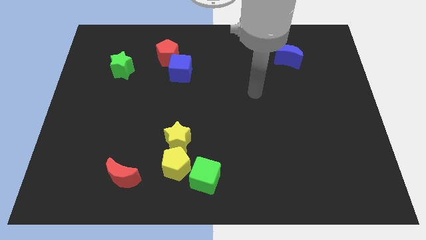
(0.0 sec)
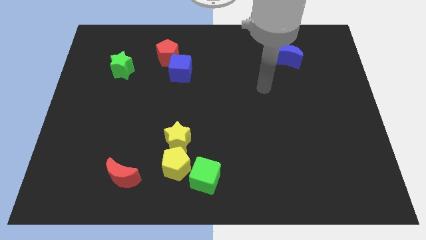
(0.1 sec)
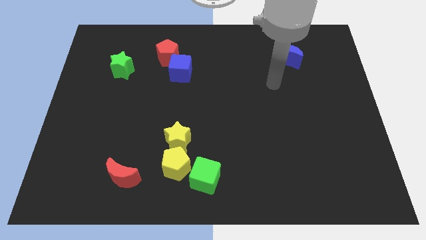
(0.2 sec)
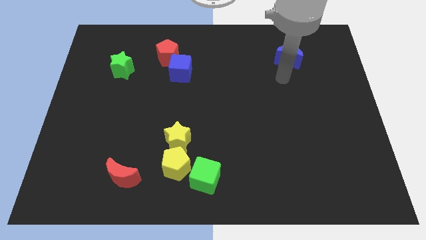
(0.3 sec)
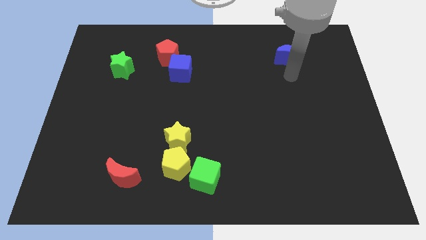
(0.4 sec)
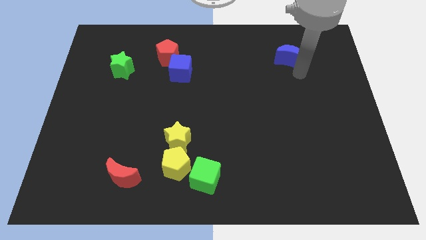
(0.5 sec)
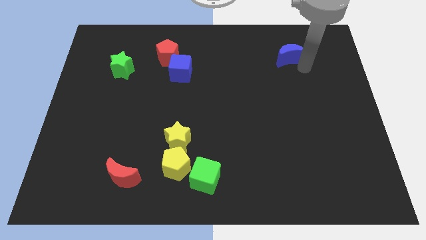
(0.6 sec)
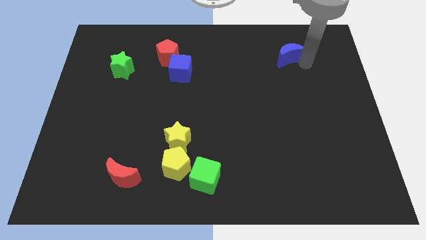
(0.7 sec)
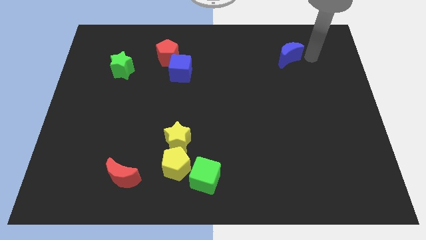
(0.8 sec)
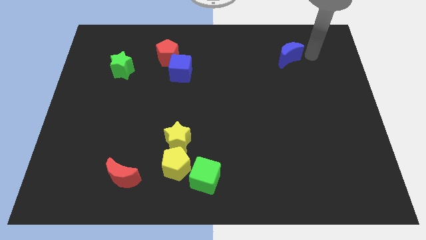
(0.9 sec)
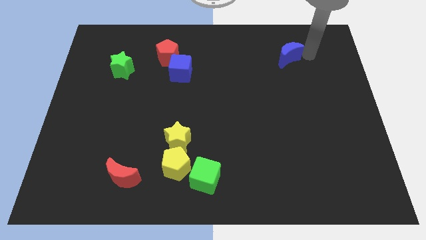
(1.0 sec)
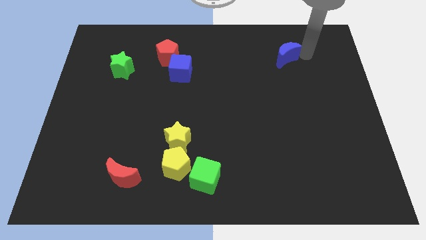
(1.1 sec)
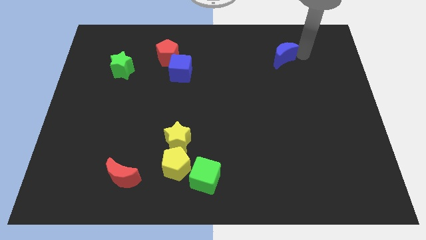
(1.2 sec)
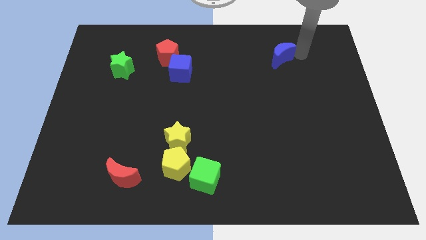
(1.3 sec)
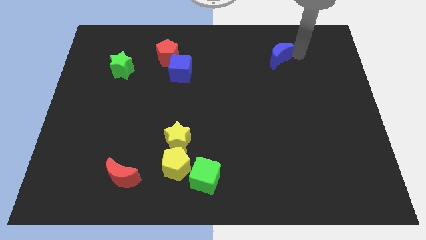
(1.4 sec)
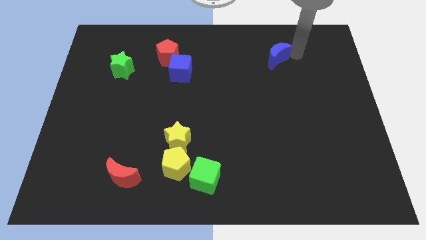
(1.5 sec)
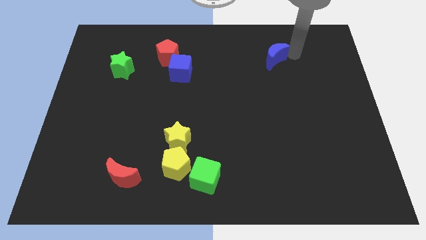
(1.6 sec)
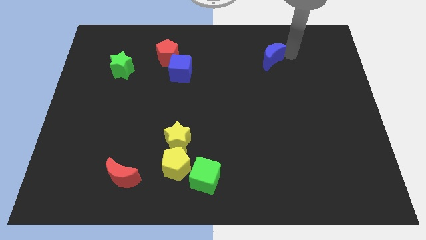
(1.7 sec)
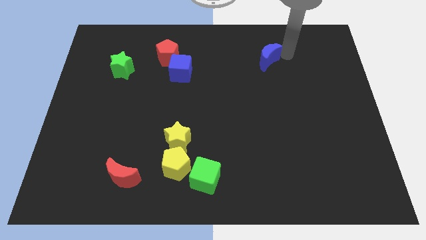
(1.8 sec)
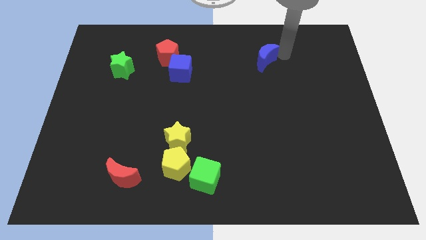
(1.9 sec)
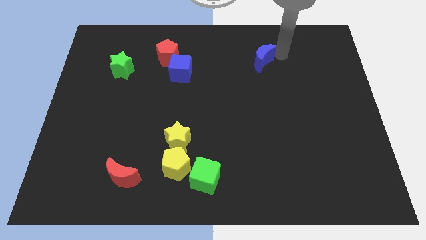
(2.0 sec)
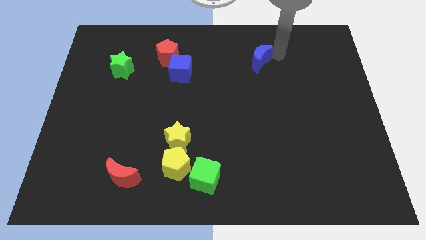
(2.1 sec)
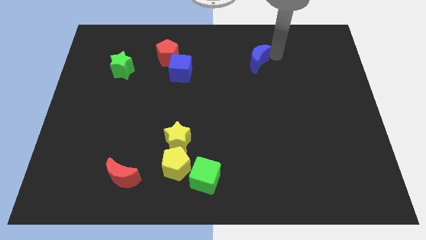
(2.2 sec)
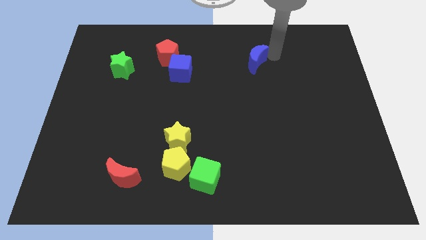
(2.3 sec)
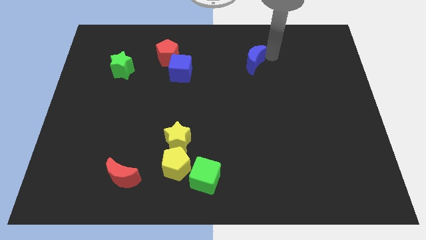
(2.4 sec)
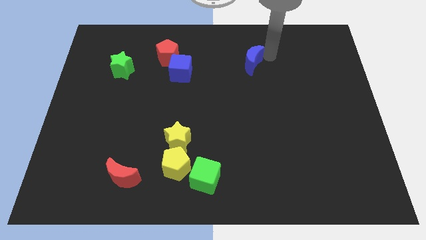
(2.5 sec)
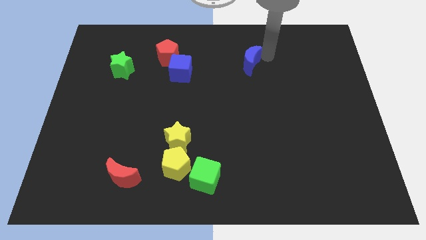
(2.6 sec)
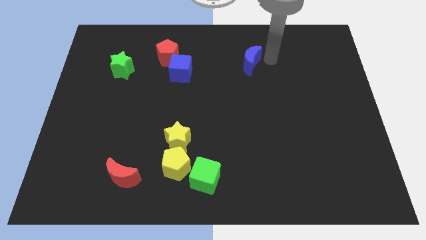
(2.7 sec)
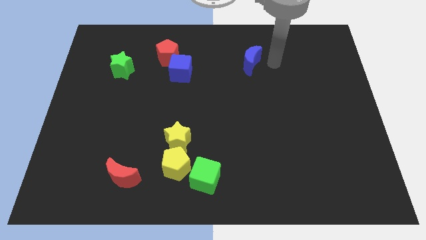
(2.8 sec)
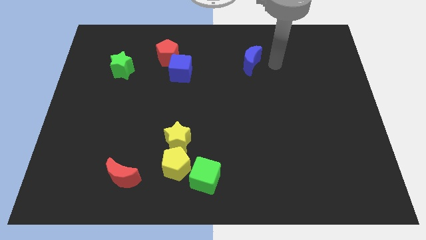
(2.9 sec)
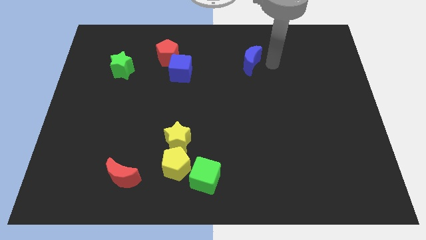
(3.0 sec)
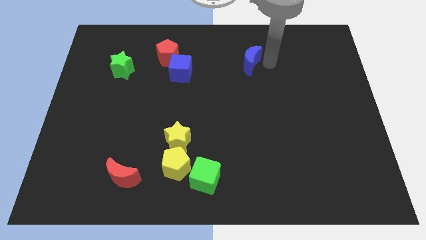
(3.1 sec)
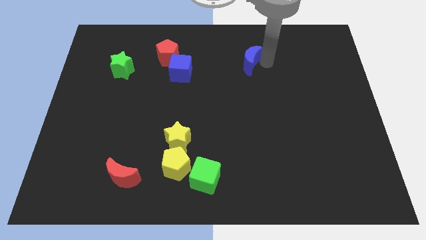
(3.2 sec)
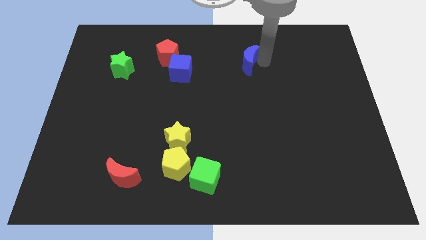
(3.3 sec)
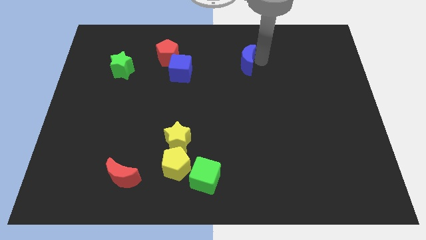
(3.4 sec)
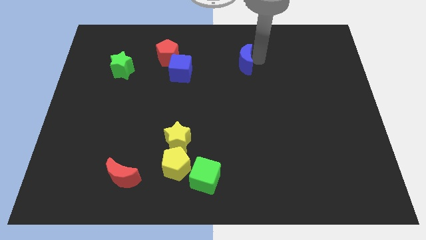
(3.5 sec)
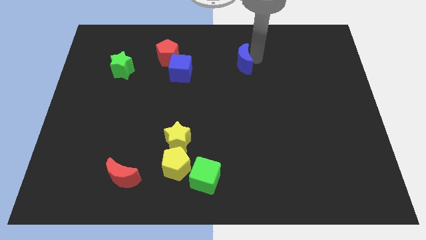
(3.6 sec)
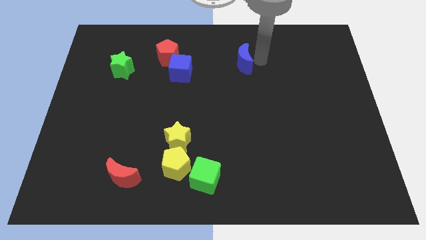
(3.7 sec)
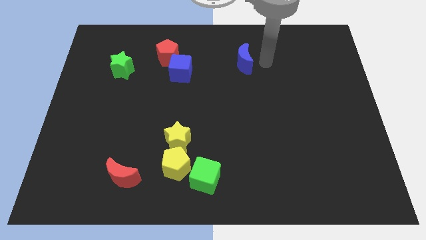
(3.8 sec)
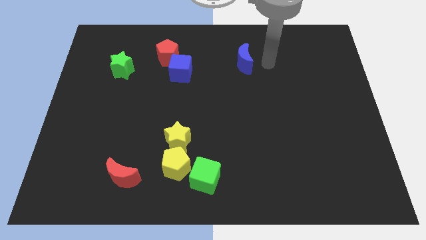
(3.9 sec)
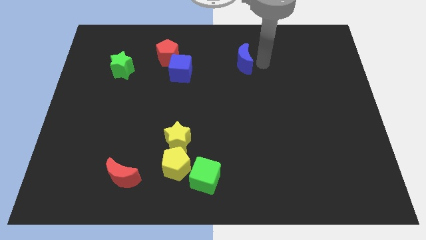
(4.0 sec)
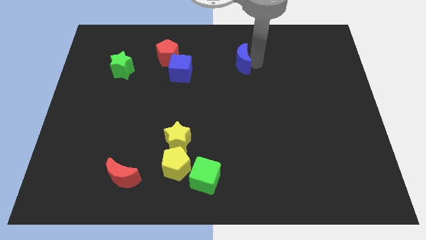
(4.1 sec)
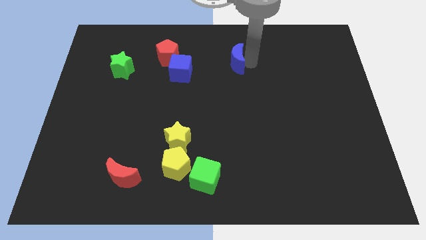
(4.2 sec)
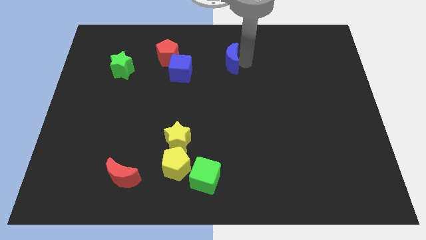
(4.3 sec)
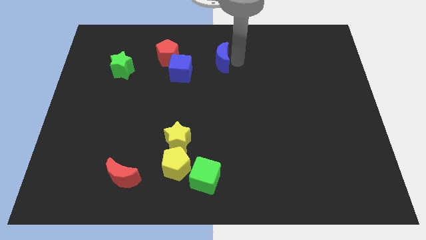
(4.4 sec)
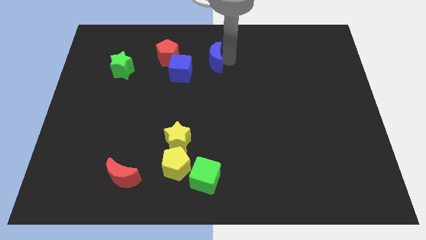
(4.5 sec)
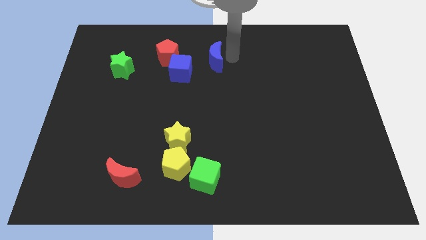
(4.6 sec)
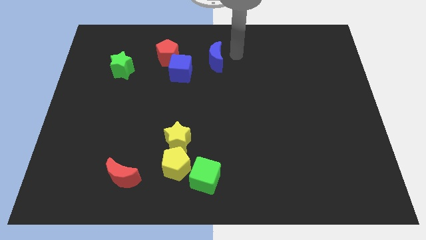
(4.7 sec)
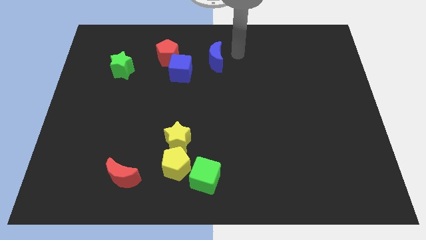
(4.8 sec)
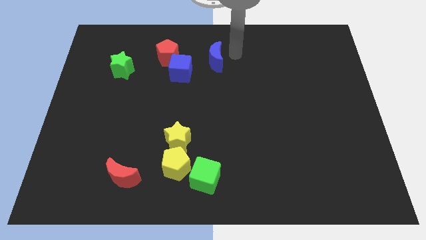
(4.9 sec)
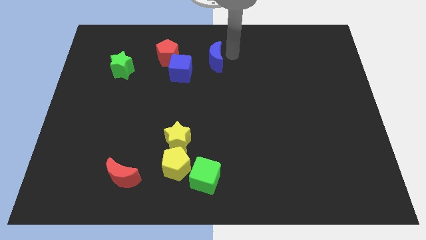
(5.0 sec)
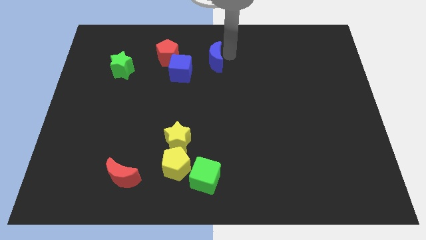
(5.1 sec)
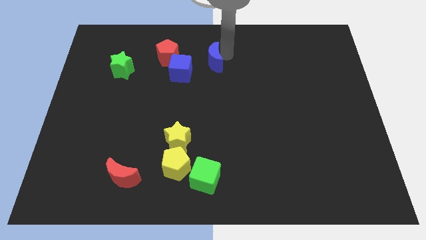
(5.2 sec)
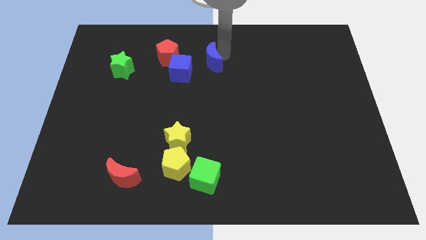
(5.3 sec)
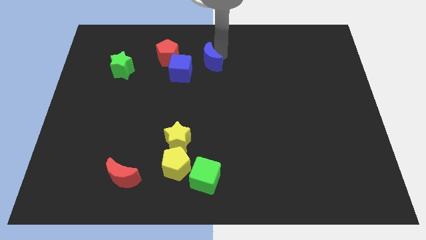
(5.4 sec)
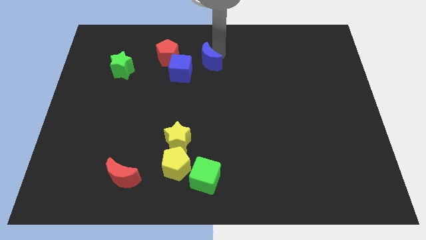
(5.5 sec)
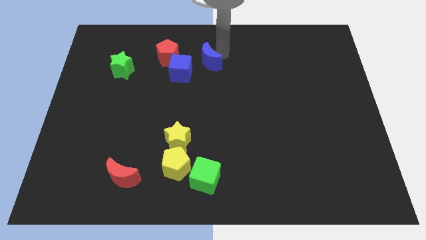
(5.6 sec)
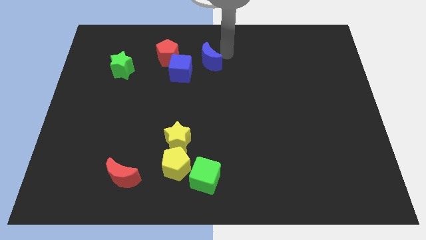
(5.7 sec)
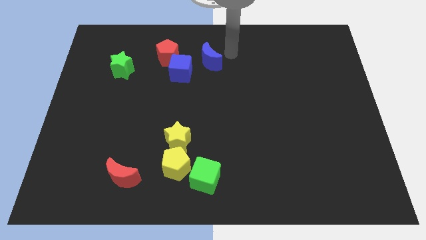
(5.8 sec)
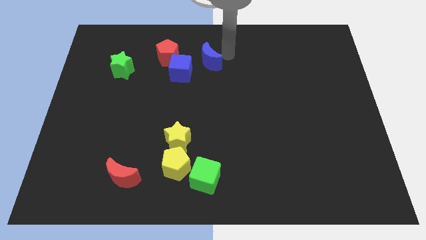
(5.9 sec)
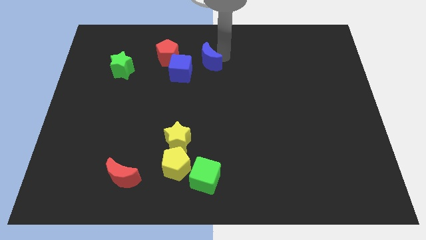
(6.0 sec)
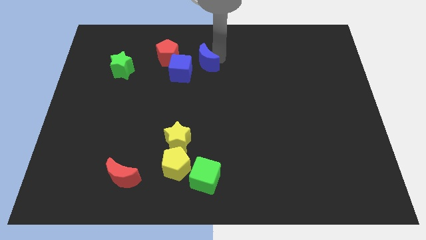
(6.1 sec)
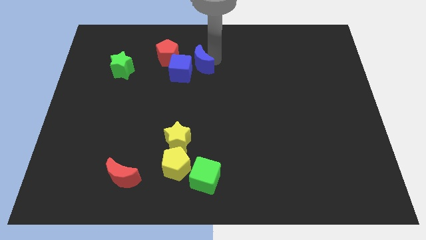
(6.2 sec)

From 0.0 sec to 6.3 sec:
slide the blue moon to the blue cube
